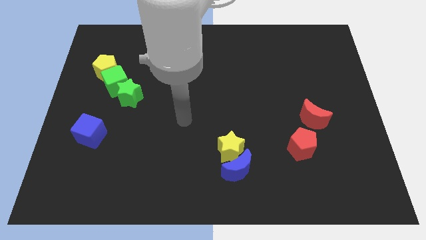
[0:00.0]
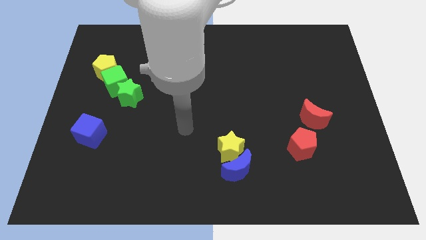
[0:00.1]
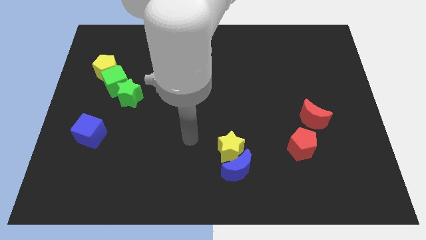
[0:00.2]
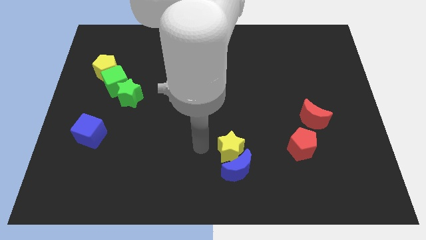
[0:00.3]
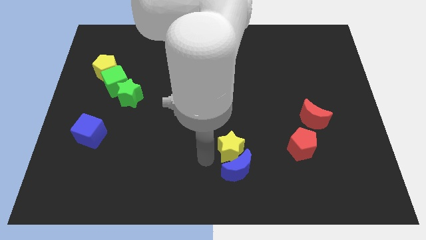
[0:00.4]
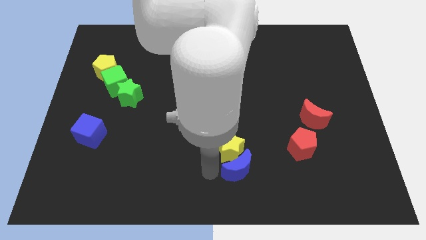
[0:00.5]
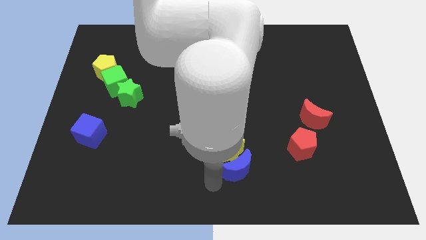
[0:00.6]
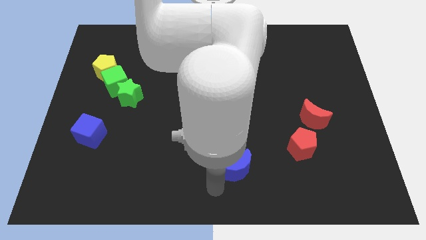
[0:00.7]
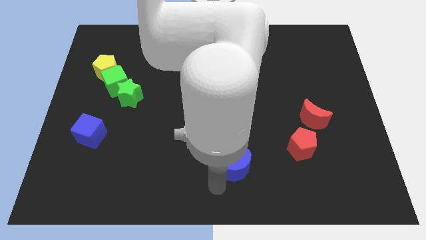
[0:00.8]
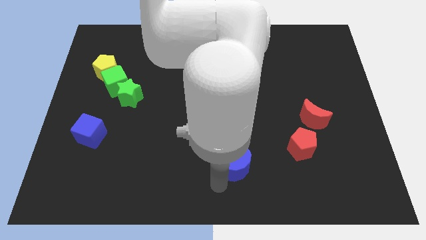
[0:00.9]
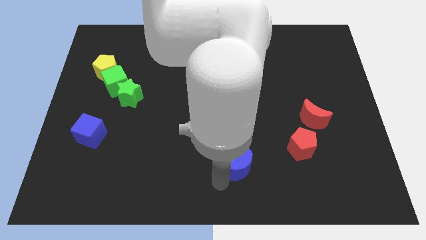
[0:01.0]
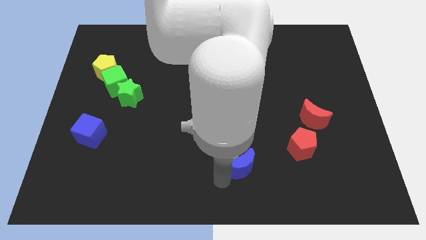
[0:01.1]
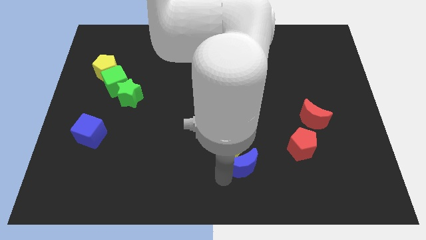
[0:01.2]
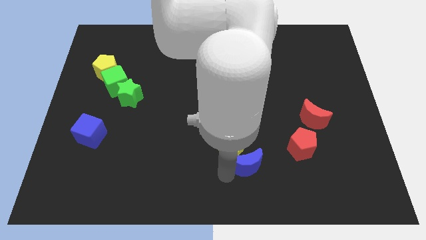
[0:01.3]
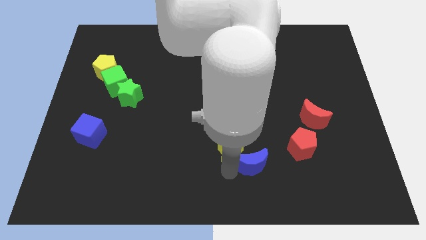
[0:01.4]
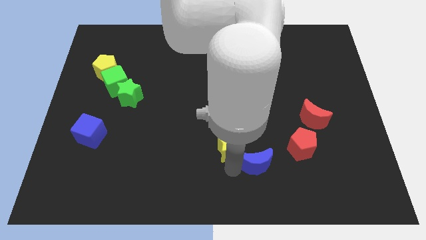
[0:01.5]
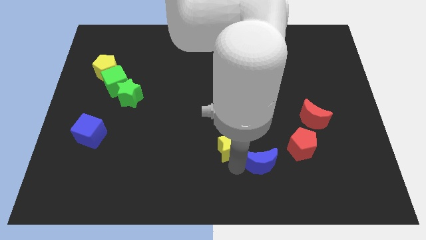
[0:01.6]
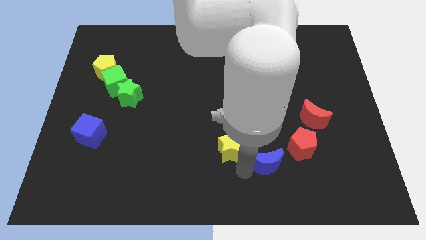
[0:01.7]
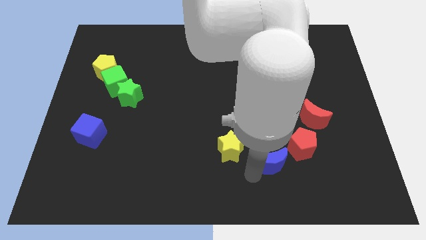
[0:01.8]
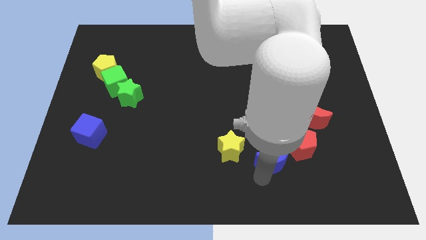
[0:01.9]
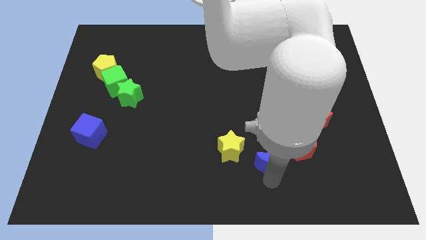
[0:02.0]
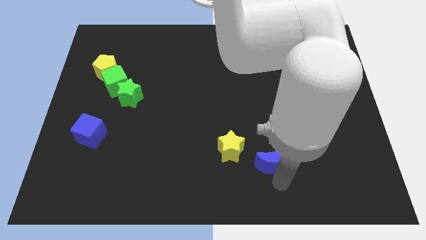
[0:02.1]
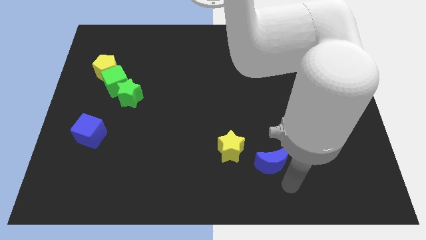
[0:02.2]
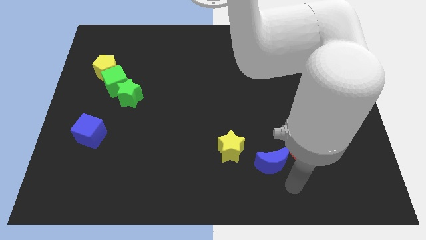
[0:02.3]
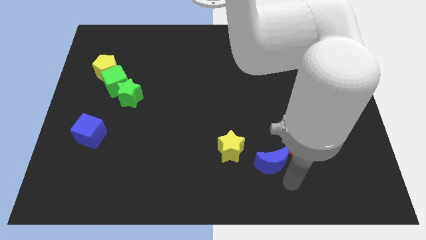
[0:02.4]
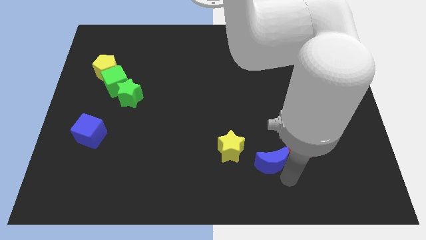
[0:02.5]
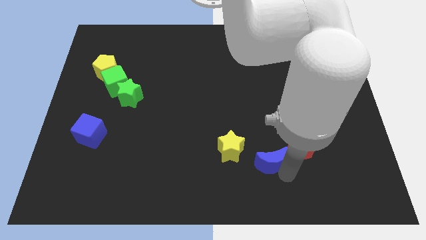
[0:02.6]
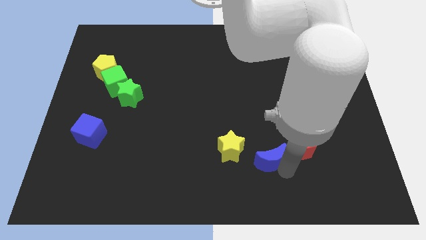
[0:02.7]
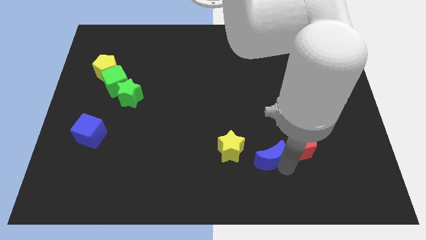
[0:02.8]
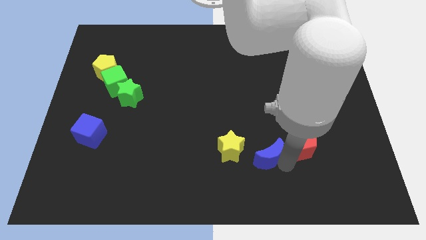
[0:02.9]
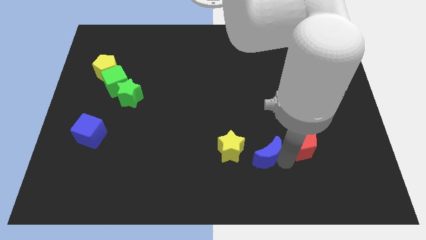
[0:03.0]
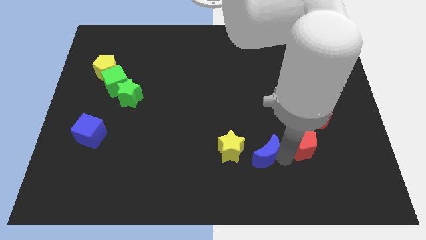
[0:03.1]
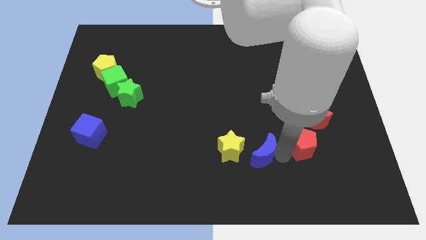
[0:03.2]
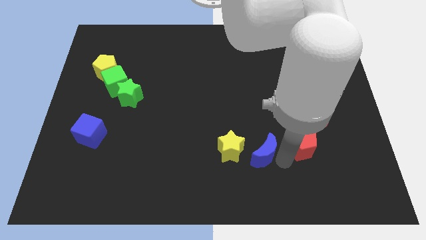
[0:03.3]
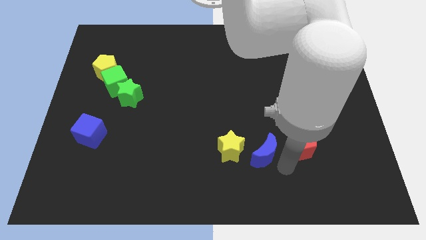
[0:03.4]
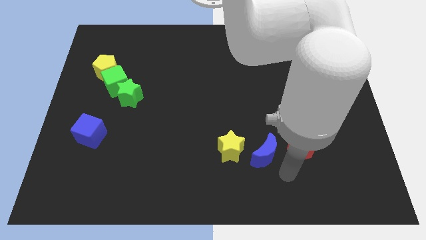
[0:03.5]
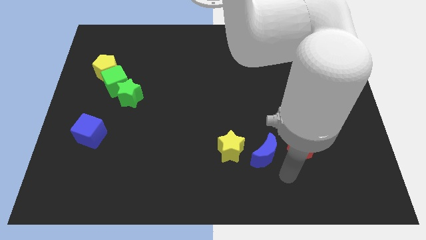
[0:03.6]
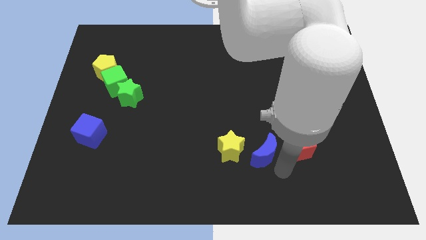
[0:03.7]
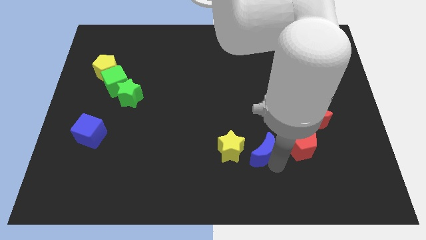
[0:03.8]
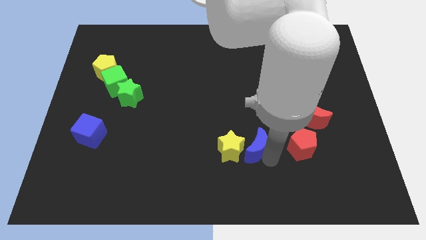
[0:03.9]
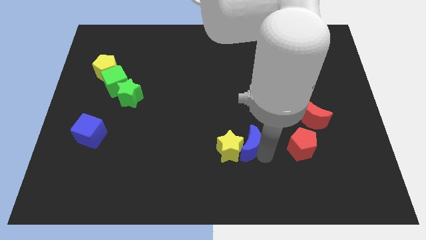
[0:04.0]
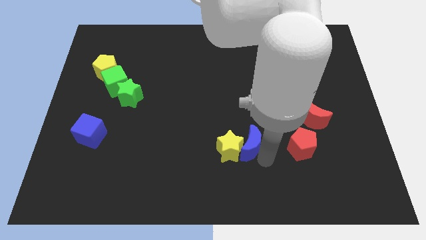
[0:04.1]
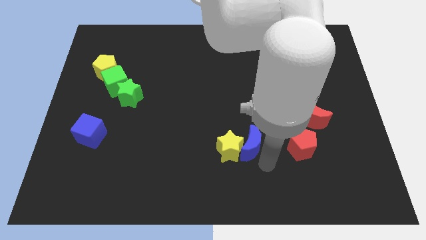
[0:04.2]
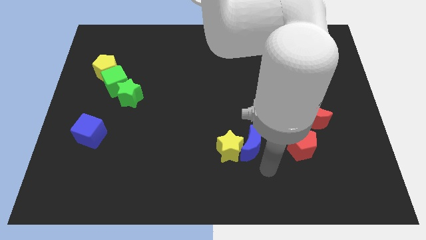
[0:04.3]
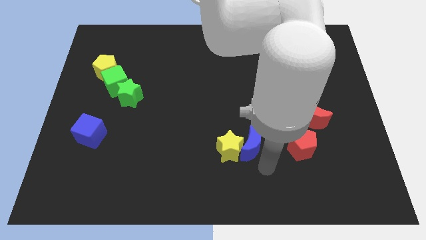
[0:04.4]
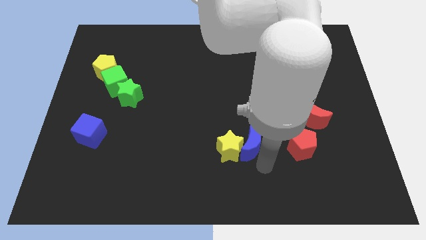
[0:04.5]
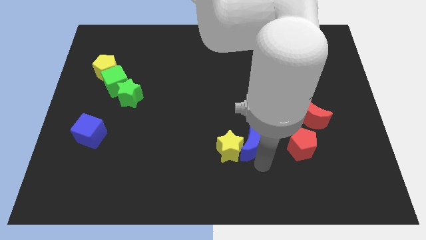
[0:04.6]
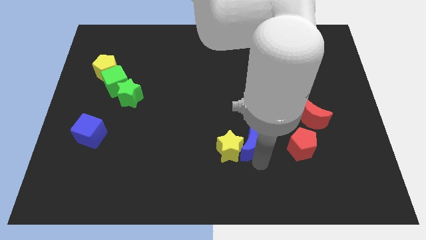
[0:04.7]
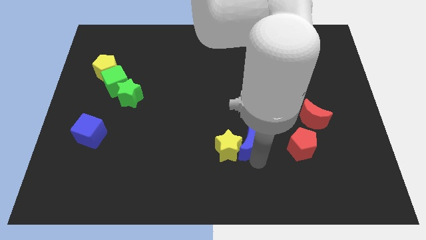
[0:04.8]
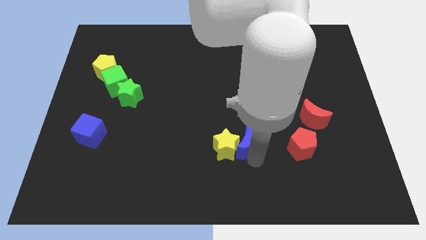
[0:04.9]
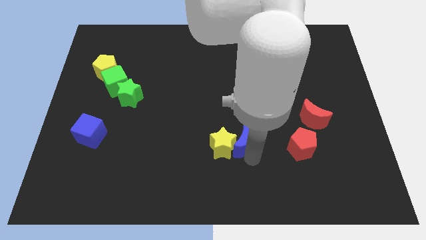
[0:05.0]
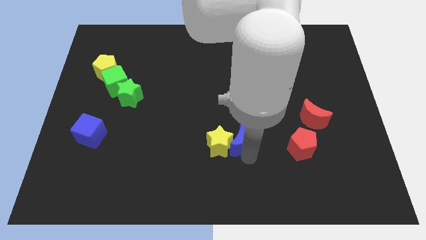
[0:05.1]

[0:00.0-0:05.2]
slide the blue moon slightly upwards

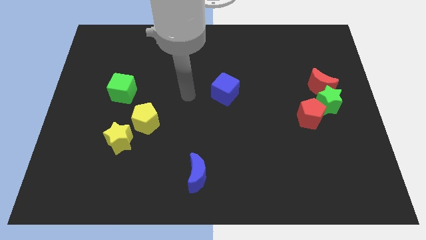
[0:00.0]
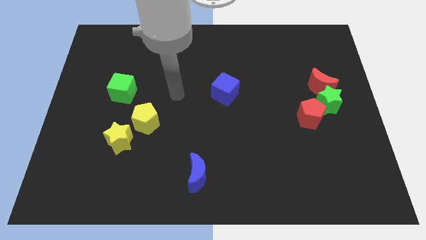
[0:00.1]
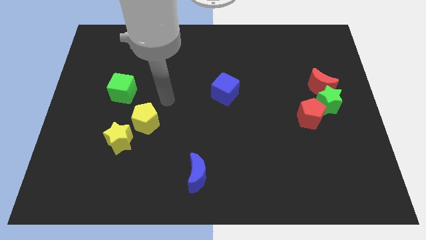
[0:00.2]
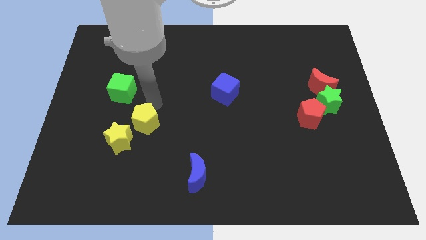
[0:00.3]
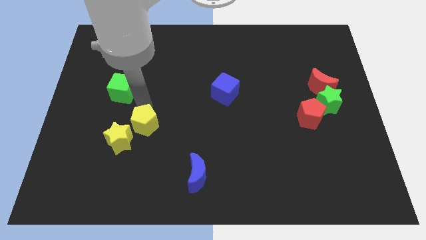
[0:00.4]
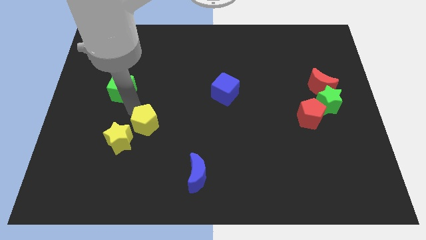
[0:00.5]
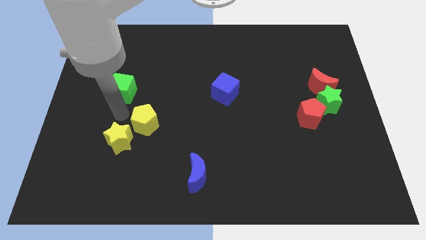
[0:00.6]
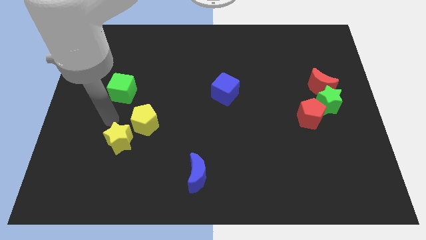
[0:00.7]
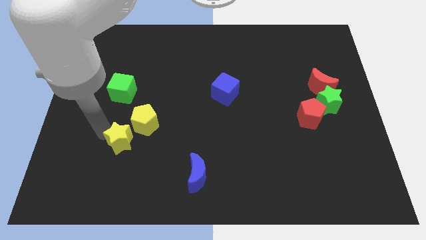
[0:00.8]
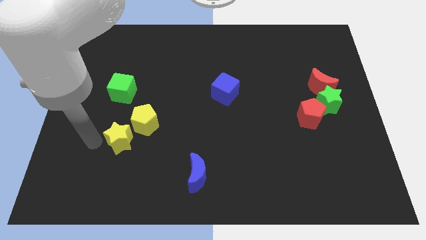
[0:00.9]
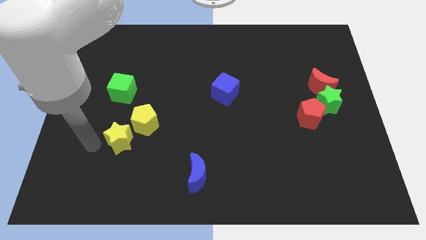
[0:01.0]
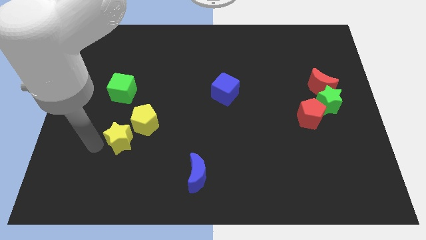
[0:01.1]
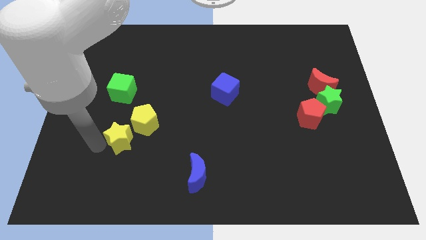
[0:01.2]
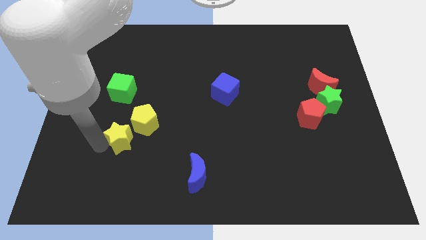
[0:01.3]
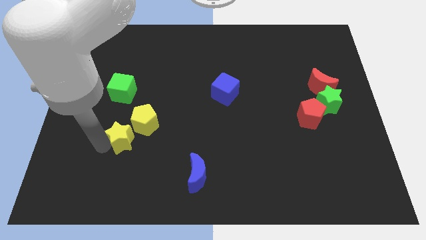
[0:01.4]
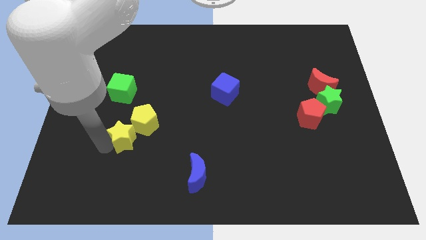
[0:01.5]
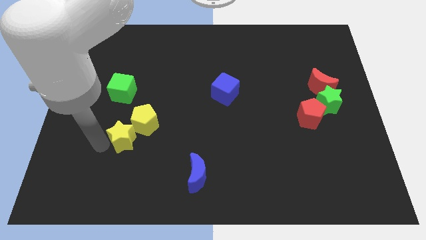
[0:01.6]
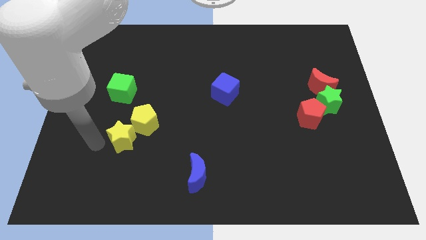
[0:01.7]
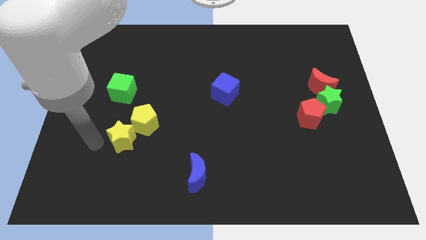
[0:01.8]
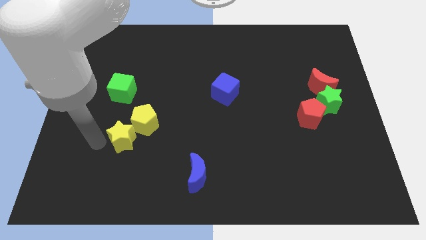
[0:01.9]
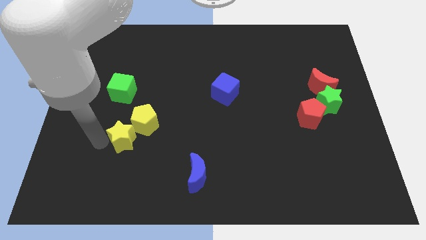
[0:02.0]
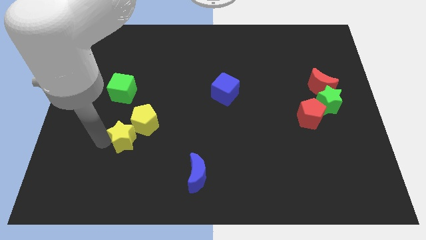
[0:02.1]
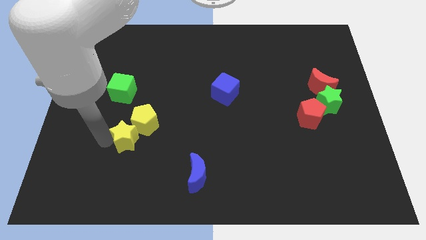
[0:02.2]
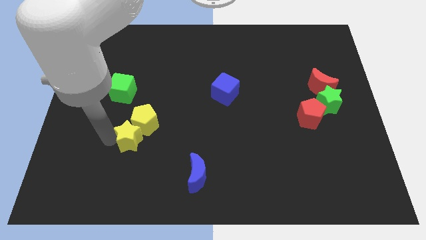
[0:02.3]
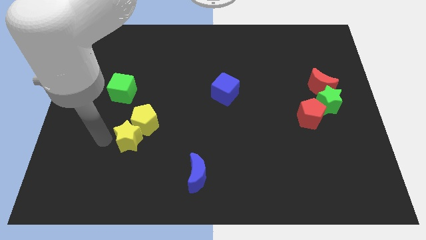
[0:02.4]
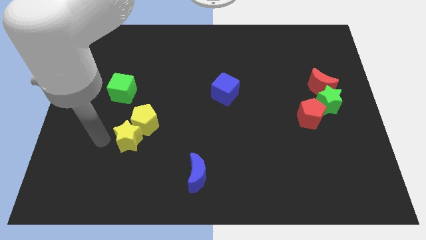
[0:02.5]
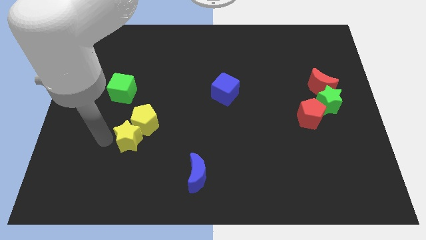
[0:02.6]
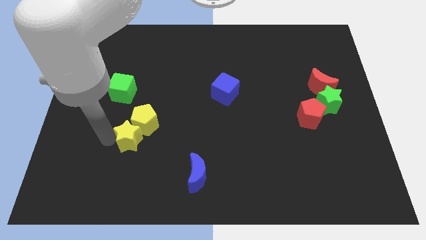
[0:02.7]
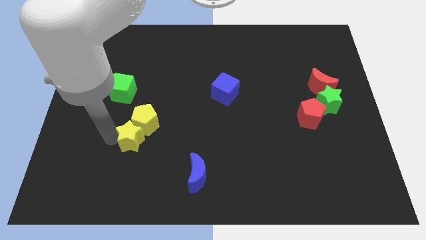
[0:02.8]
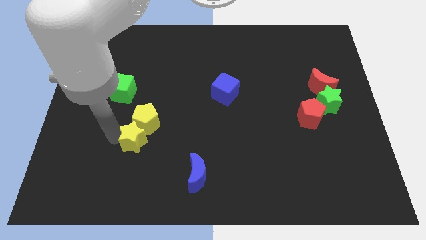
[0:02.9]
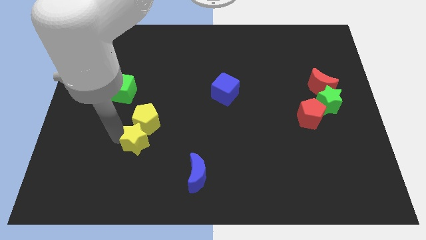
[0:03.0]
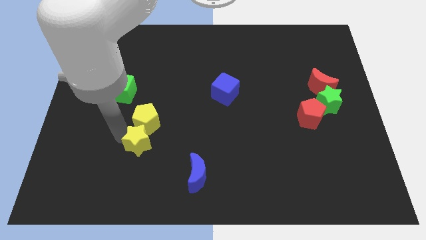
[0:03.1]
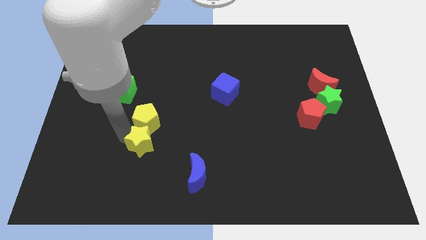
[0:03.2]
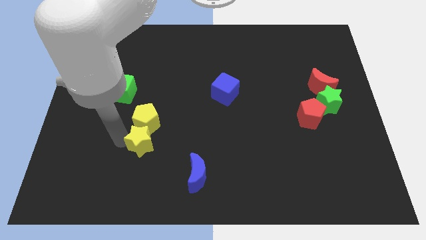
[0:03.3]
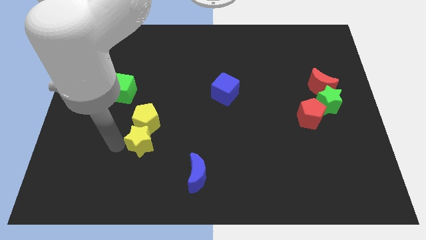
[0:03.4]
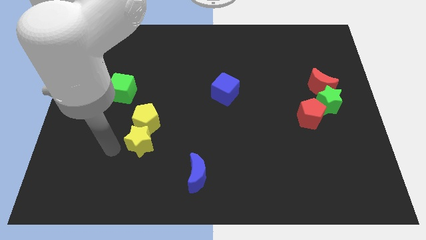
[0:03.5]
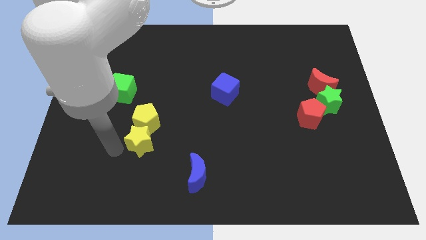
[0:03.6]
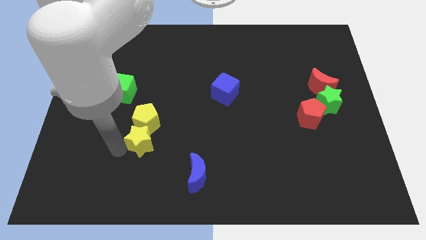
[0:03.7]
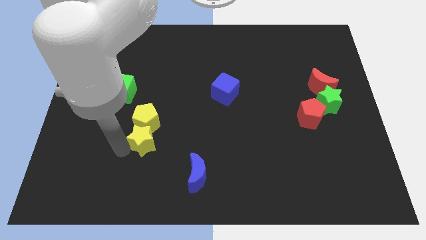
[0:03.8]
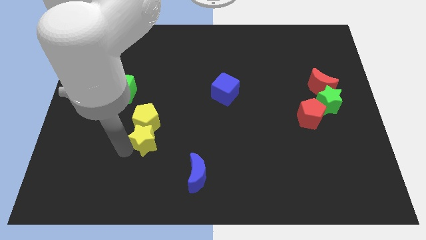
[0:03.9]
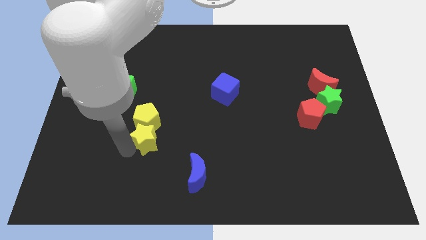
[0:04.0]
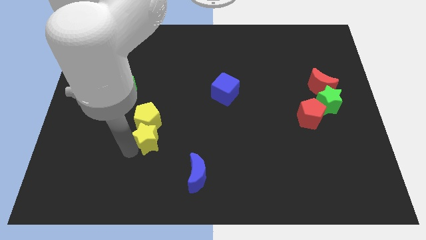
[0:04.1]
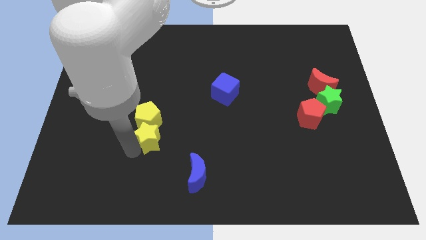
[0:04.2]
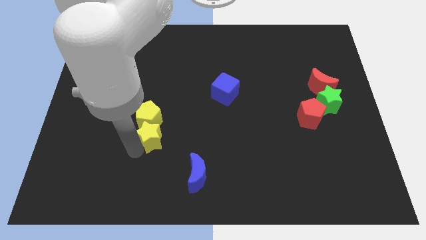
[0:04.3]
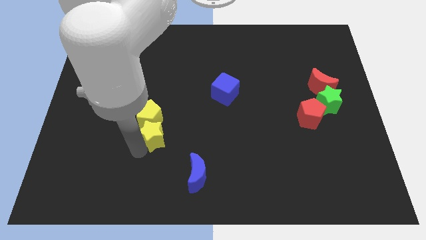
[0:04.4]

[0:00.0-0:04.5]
slide the yellow star somewhat to the right
